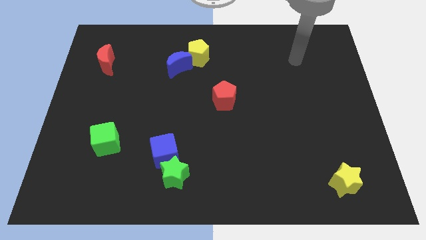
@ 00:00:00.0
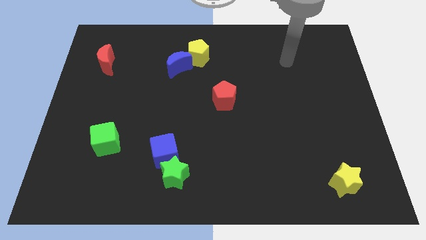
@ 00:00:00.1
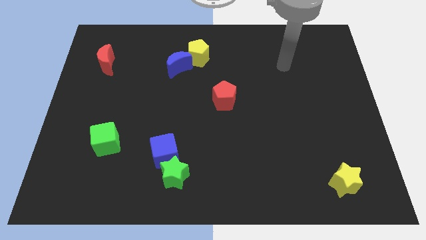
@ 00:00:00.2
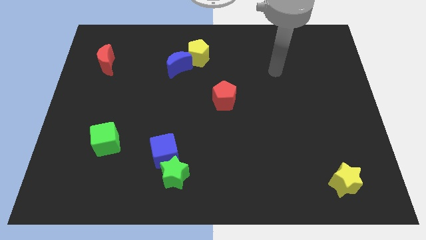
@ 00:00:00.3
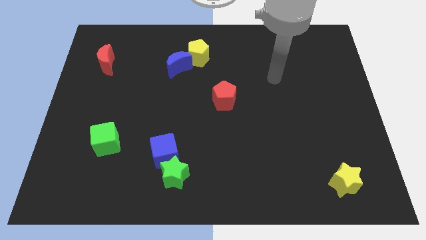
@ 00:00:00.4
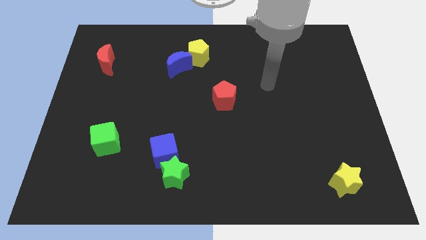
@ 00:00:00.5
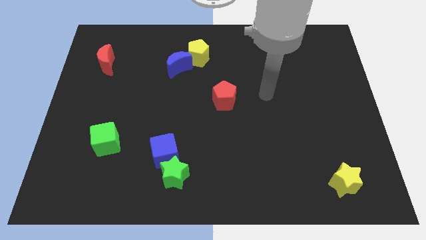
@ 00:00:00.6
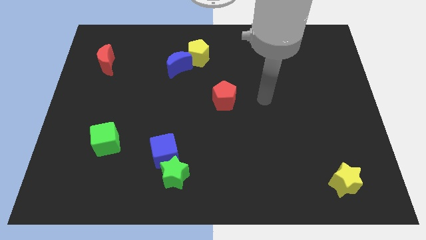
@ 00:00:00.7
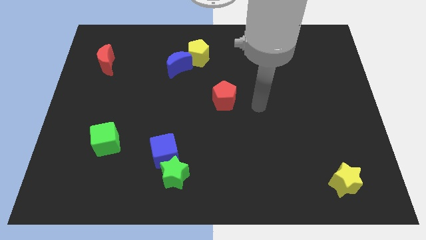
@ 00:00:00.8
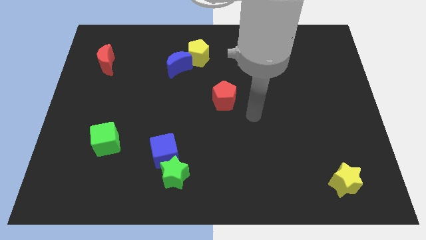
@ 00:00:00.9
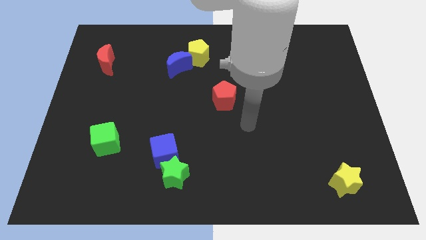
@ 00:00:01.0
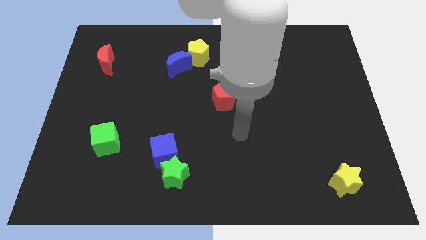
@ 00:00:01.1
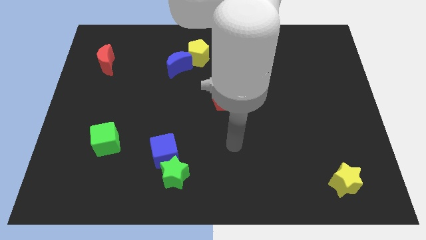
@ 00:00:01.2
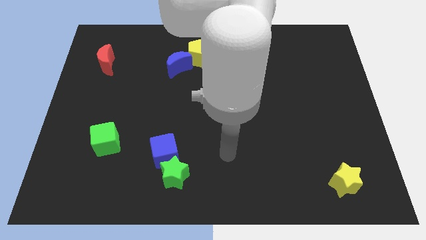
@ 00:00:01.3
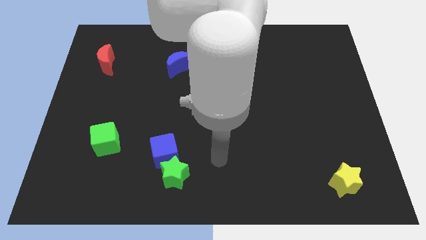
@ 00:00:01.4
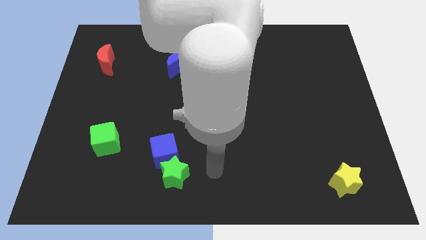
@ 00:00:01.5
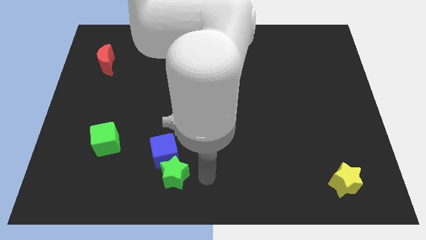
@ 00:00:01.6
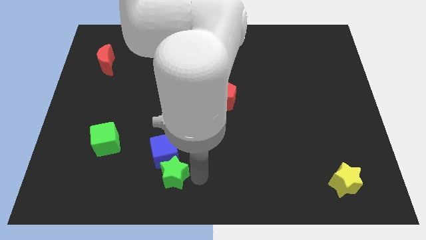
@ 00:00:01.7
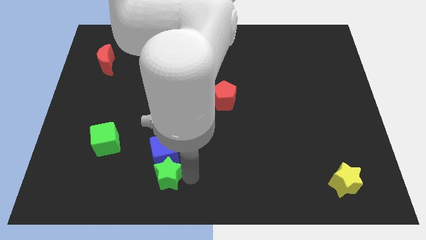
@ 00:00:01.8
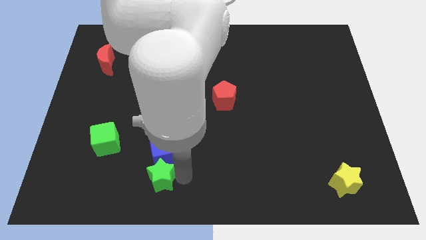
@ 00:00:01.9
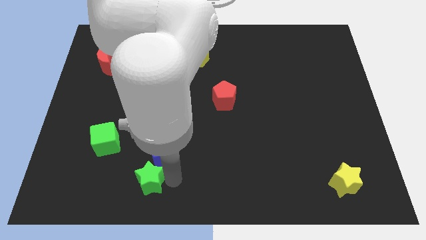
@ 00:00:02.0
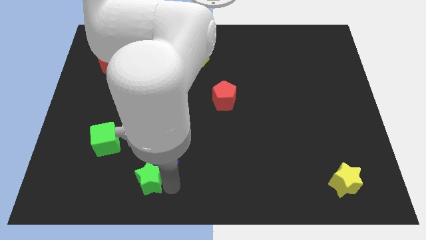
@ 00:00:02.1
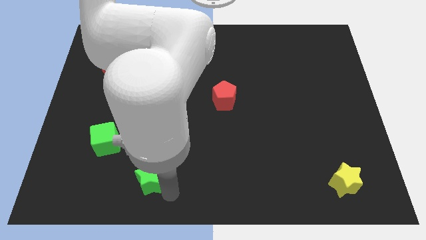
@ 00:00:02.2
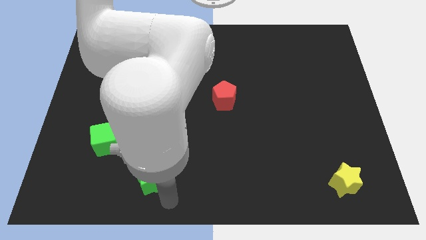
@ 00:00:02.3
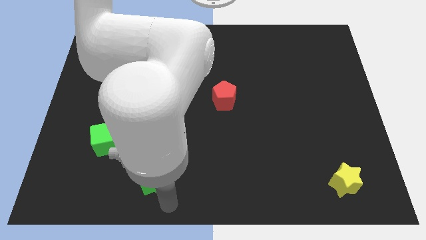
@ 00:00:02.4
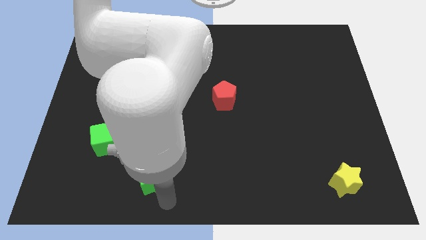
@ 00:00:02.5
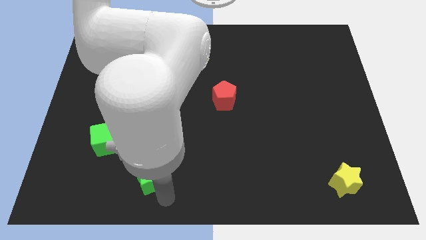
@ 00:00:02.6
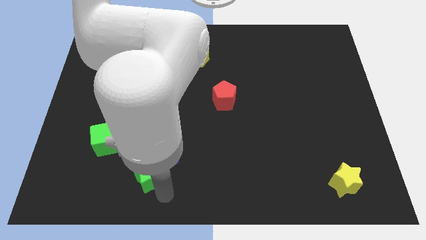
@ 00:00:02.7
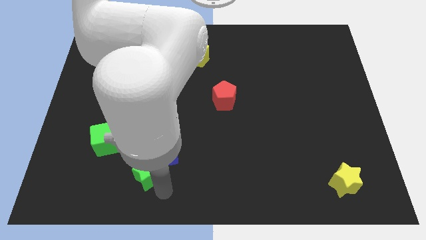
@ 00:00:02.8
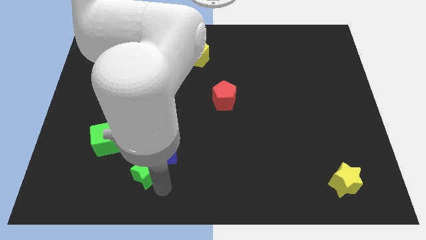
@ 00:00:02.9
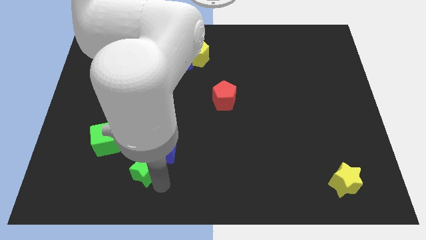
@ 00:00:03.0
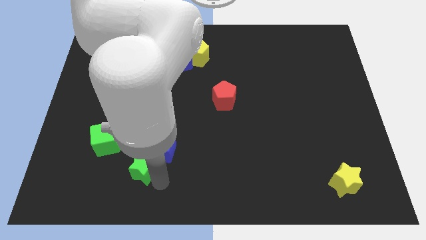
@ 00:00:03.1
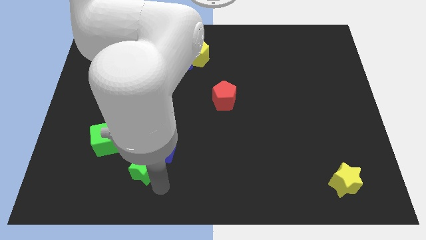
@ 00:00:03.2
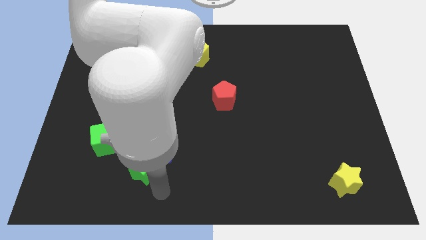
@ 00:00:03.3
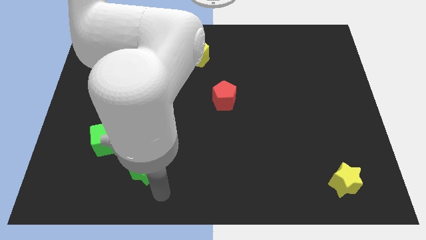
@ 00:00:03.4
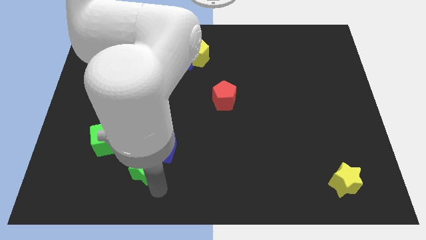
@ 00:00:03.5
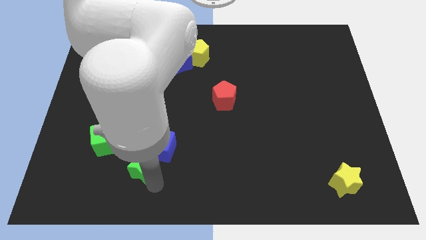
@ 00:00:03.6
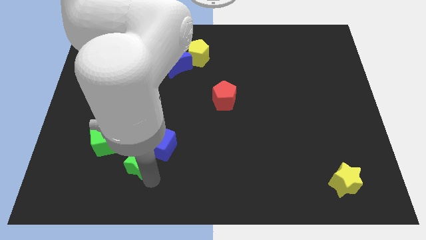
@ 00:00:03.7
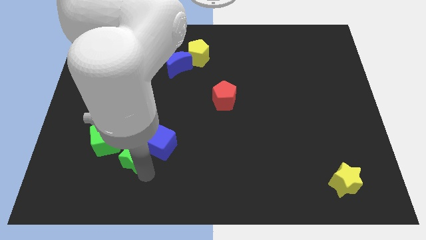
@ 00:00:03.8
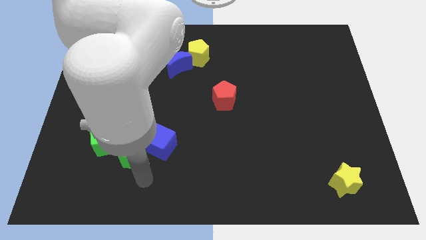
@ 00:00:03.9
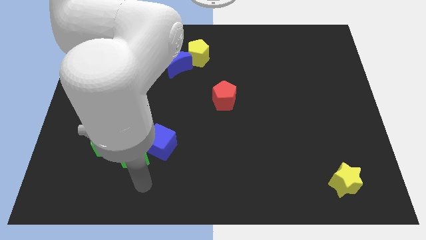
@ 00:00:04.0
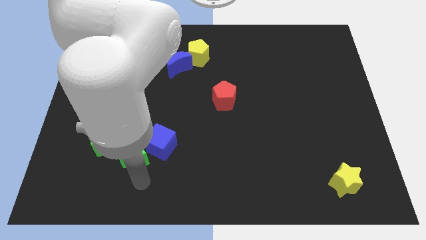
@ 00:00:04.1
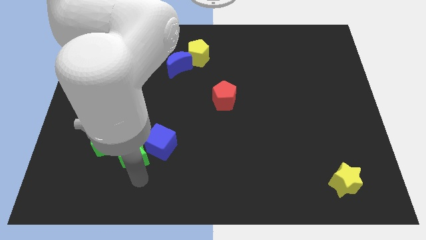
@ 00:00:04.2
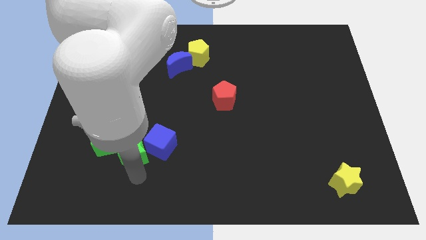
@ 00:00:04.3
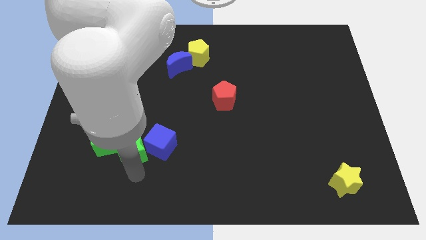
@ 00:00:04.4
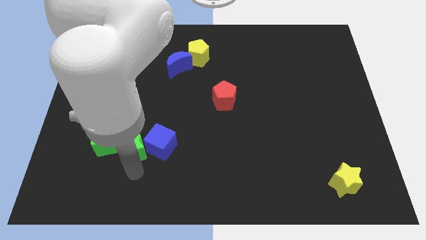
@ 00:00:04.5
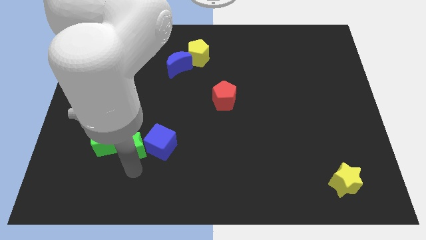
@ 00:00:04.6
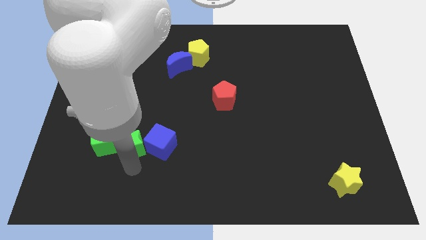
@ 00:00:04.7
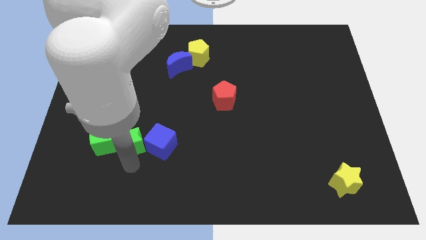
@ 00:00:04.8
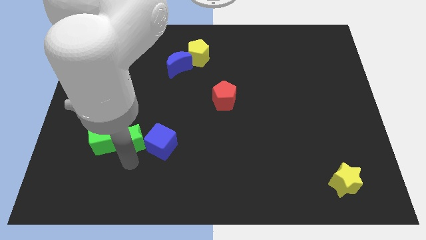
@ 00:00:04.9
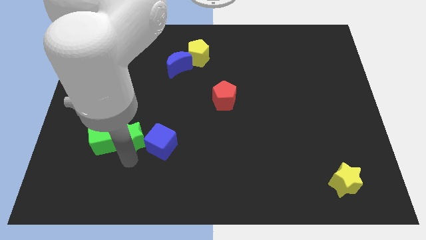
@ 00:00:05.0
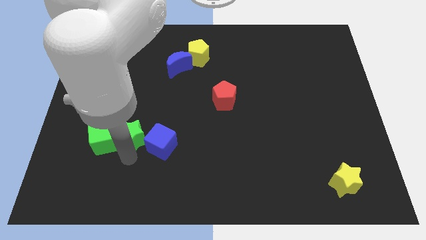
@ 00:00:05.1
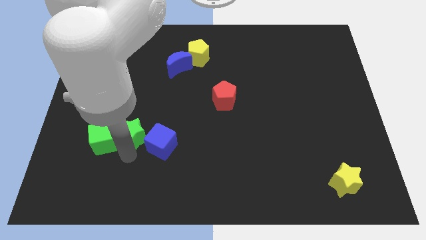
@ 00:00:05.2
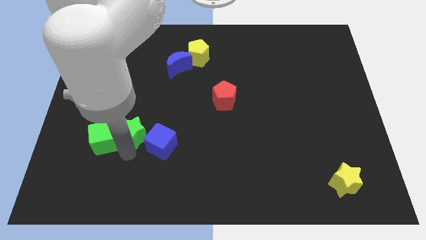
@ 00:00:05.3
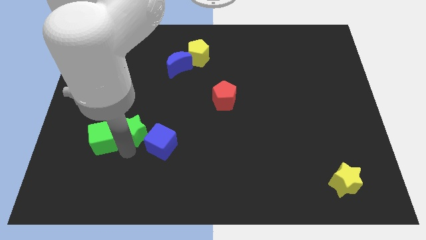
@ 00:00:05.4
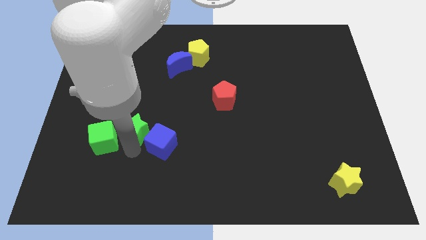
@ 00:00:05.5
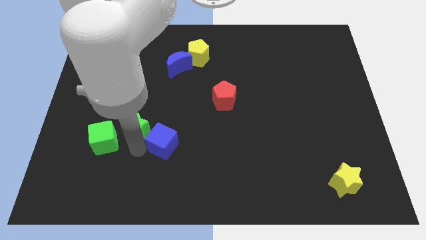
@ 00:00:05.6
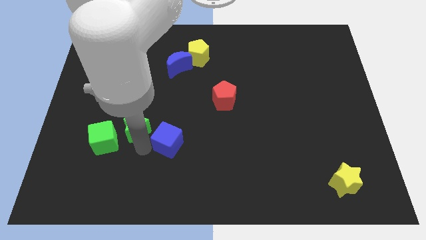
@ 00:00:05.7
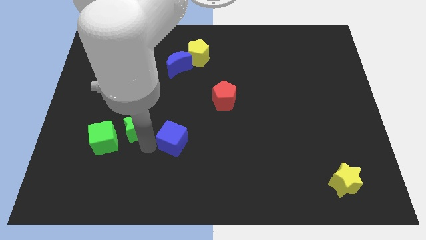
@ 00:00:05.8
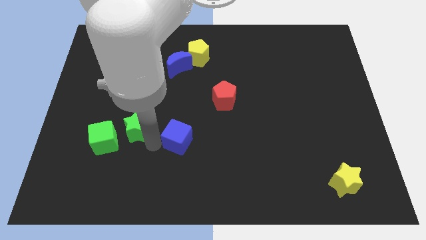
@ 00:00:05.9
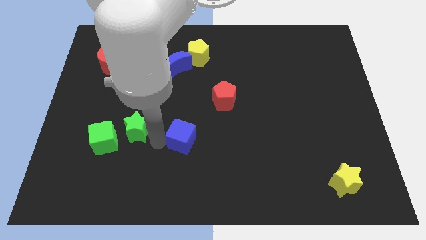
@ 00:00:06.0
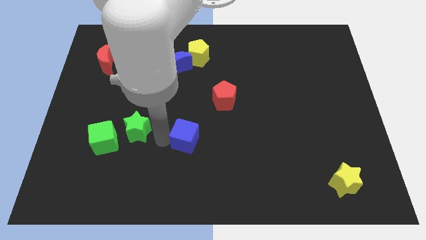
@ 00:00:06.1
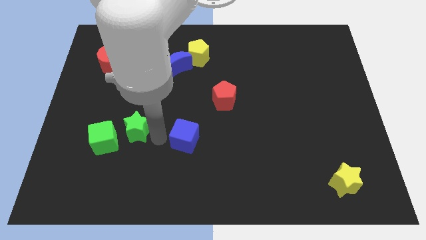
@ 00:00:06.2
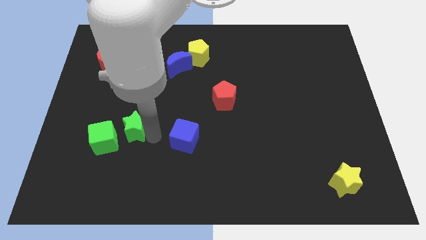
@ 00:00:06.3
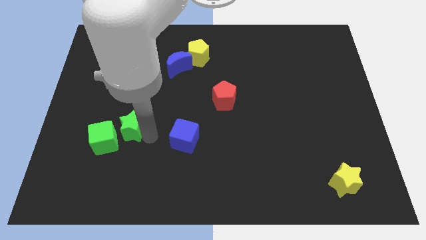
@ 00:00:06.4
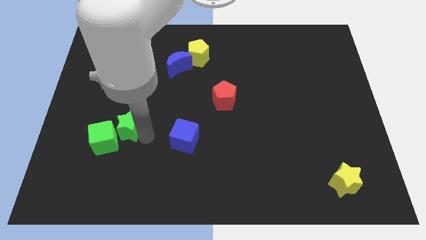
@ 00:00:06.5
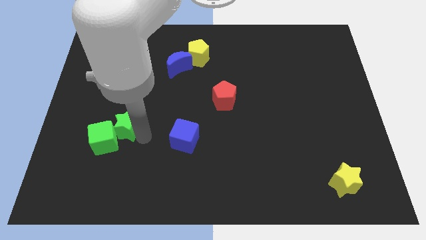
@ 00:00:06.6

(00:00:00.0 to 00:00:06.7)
slide the green star above the green cube
